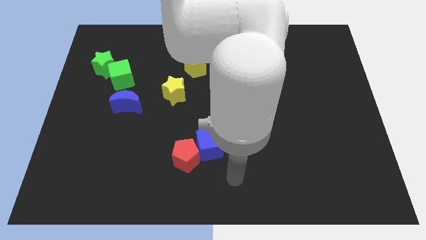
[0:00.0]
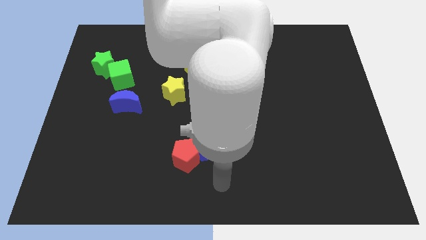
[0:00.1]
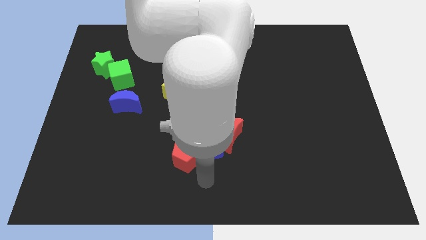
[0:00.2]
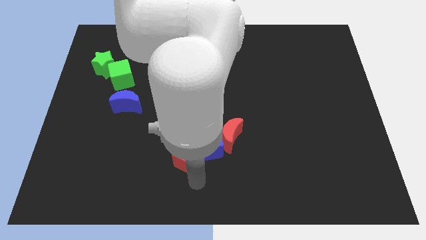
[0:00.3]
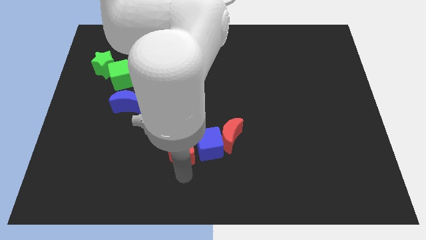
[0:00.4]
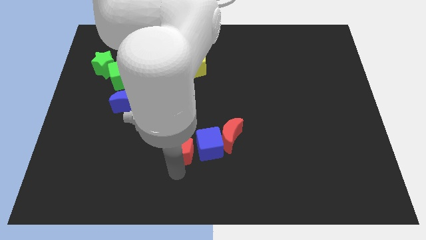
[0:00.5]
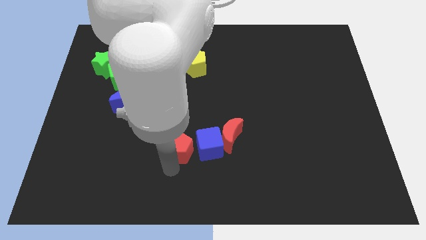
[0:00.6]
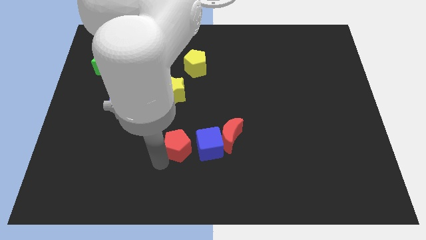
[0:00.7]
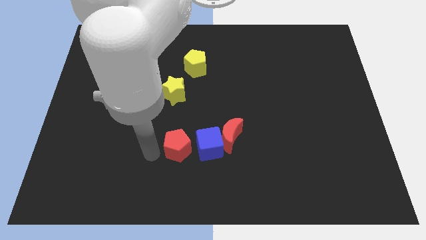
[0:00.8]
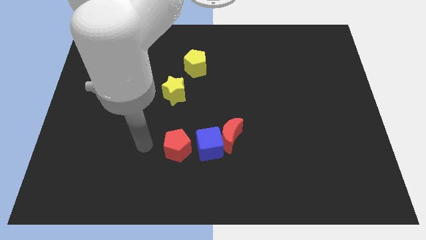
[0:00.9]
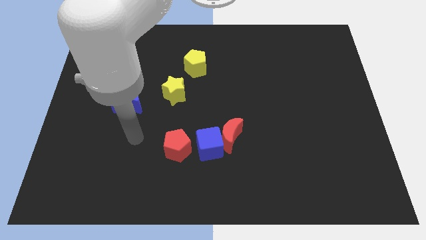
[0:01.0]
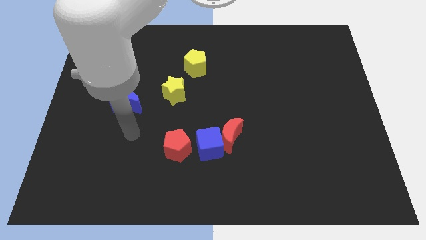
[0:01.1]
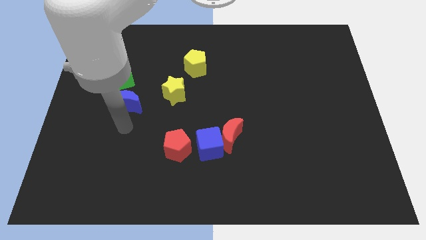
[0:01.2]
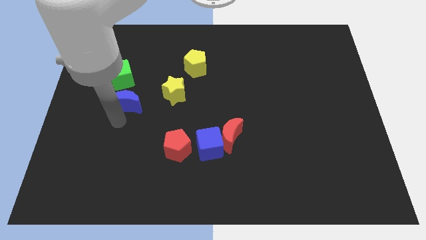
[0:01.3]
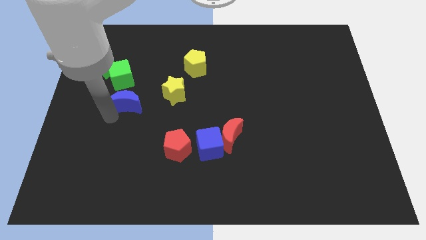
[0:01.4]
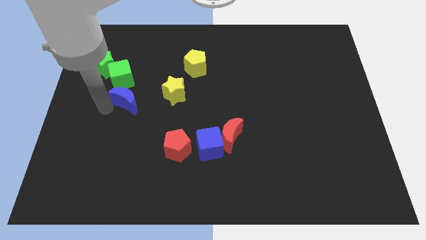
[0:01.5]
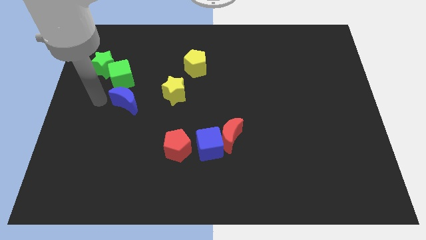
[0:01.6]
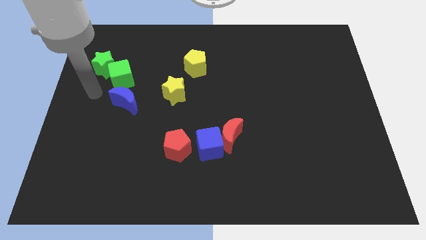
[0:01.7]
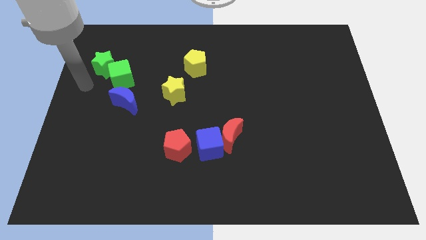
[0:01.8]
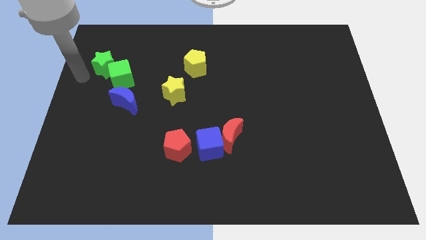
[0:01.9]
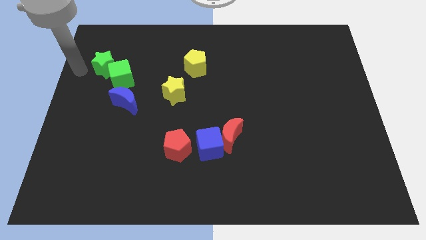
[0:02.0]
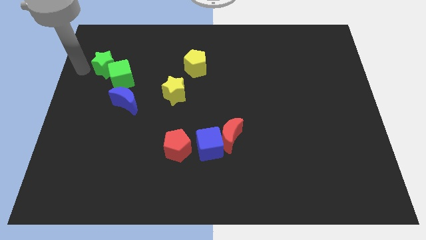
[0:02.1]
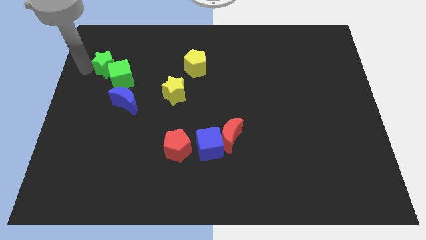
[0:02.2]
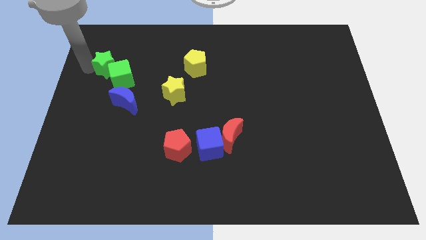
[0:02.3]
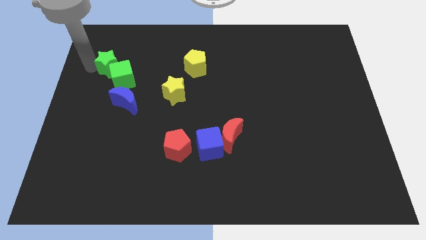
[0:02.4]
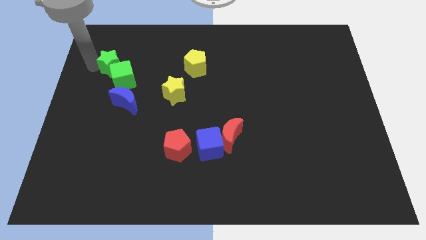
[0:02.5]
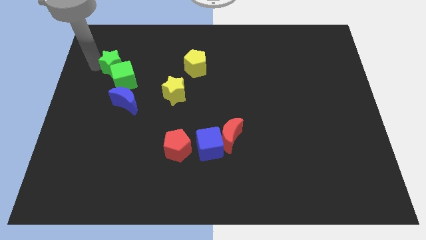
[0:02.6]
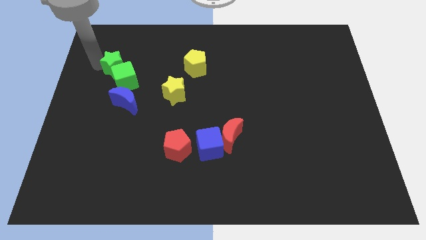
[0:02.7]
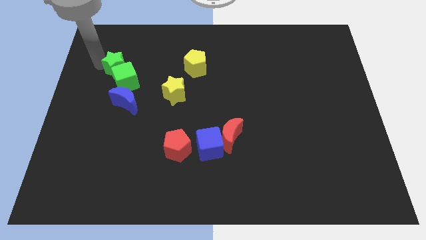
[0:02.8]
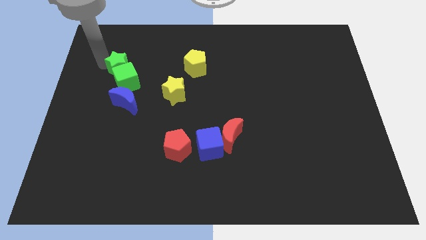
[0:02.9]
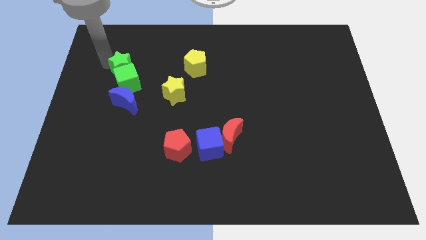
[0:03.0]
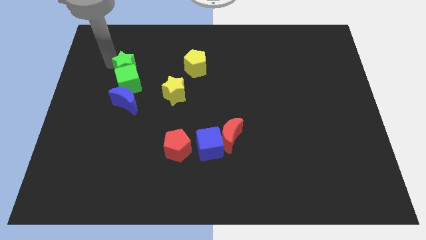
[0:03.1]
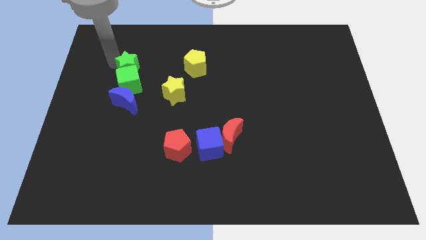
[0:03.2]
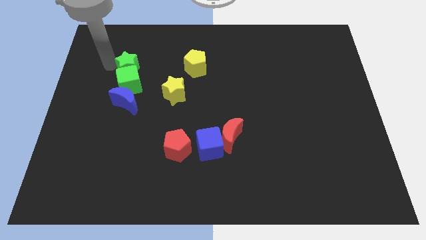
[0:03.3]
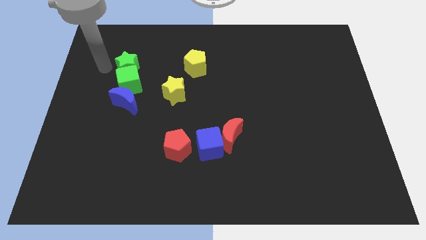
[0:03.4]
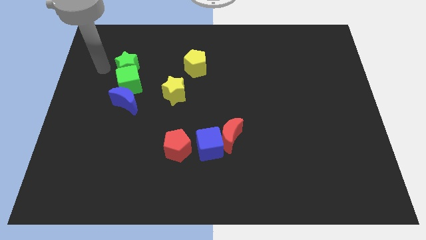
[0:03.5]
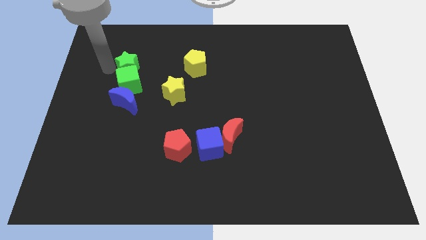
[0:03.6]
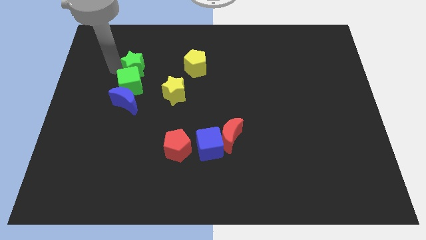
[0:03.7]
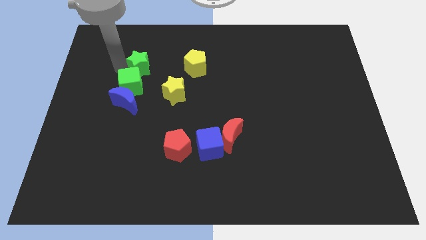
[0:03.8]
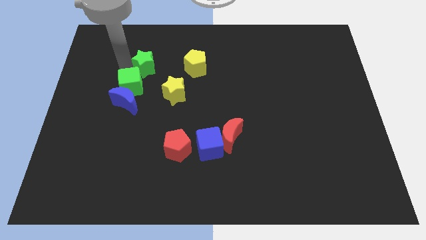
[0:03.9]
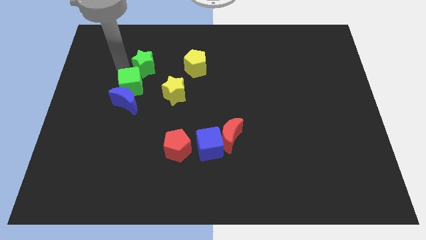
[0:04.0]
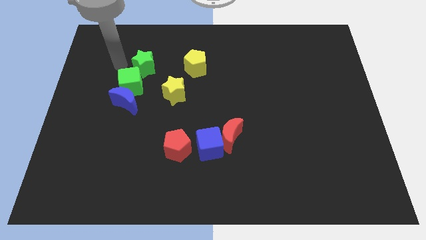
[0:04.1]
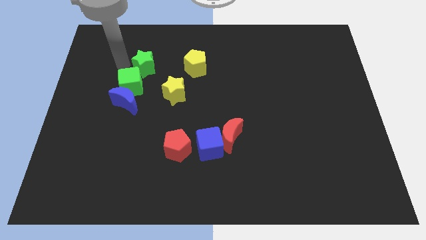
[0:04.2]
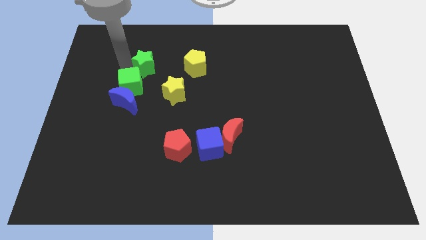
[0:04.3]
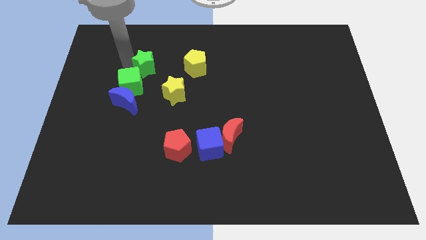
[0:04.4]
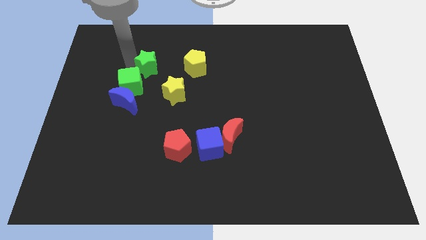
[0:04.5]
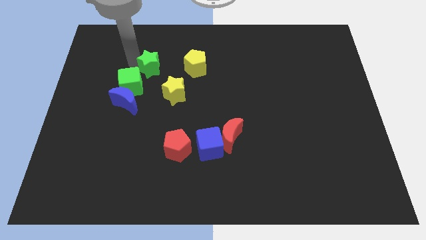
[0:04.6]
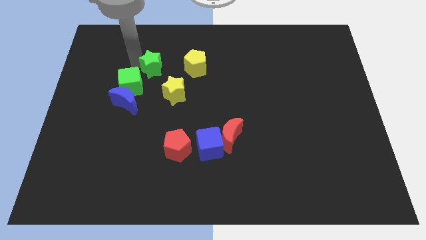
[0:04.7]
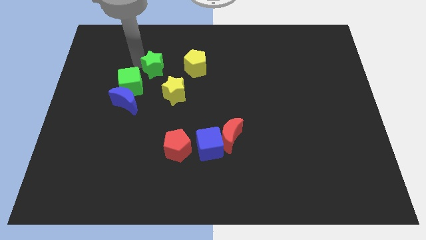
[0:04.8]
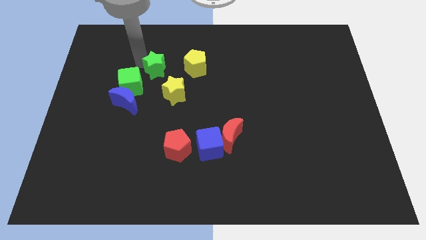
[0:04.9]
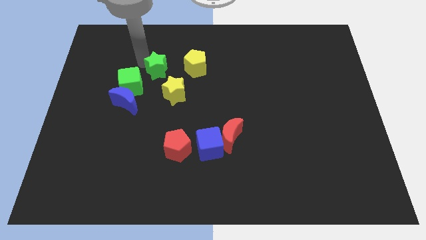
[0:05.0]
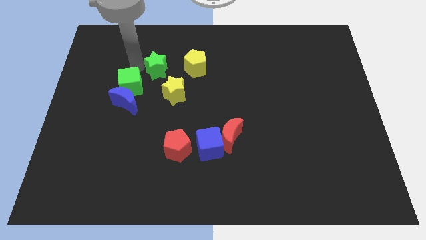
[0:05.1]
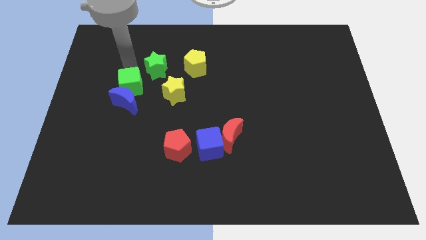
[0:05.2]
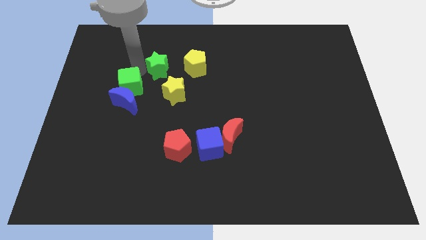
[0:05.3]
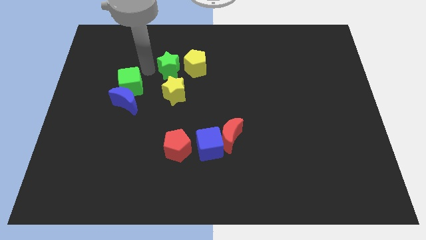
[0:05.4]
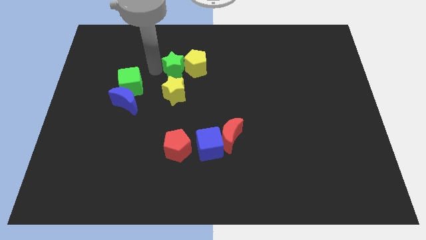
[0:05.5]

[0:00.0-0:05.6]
push the green star close to the yellow pentagon

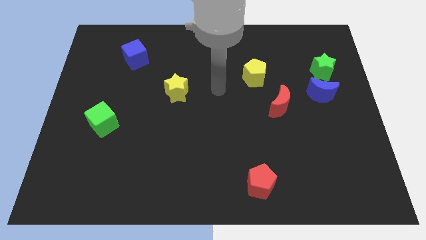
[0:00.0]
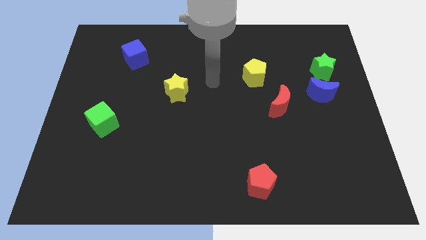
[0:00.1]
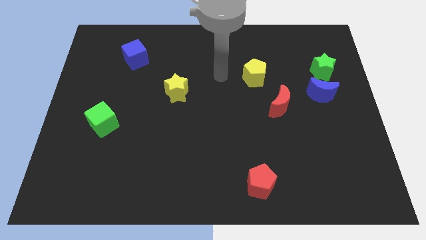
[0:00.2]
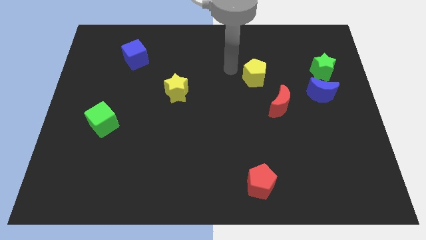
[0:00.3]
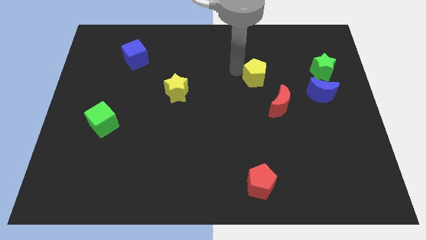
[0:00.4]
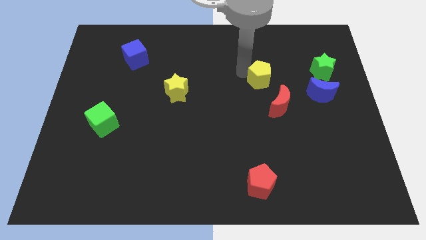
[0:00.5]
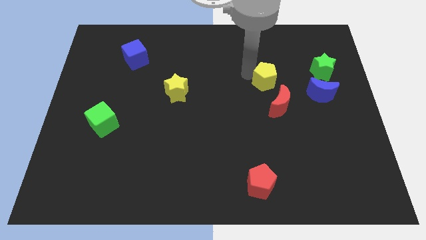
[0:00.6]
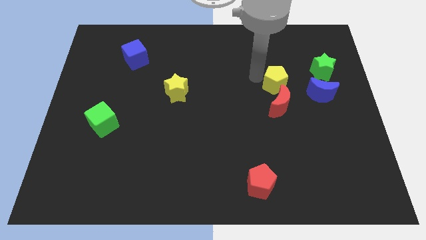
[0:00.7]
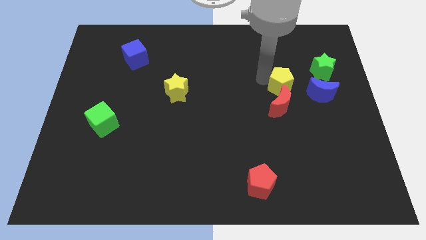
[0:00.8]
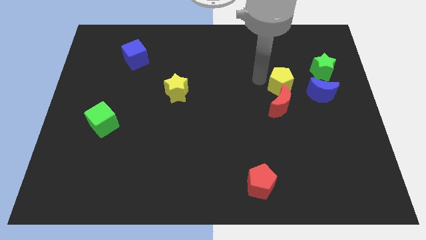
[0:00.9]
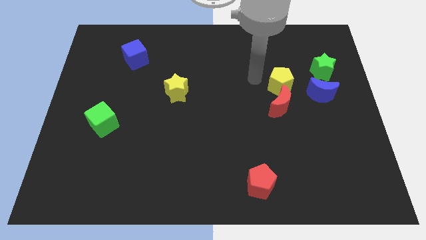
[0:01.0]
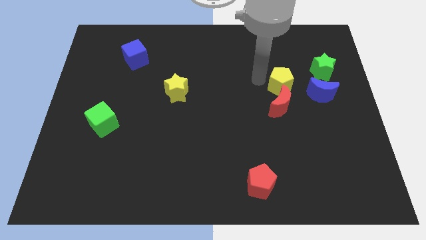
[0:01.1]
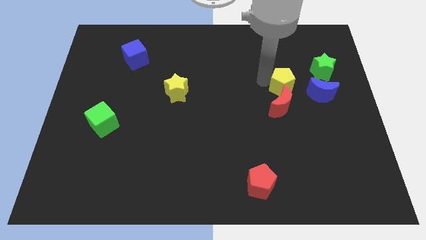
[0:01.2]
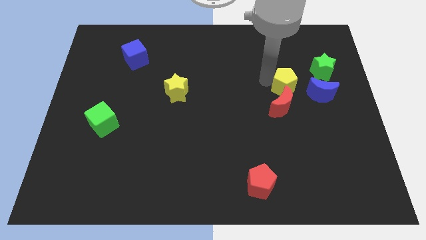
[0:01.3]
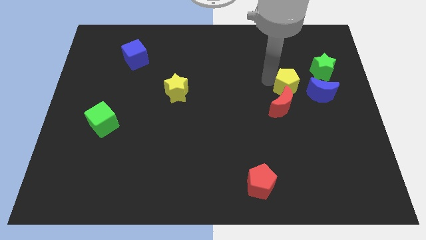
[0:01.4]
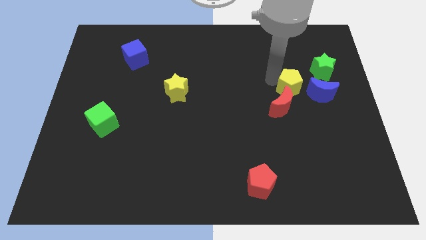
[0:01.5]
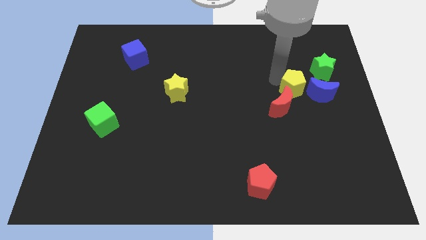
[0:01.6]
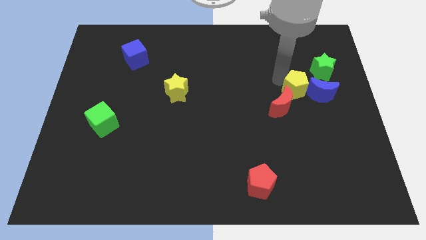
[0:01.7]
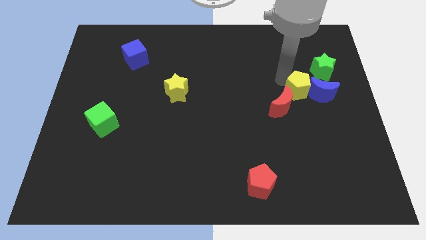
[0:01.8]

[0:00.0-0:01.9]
push the yellow pentagon next to the blue moon
